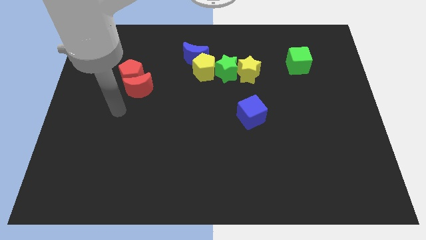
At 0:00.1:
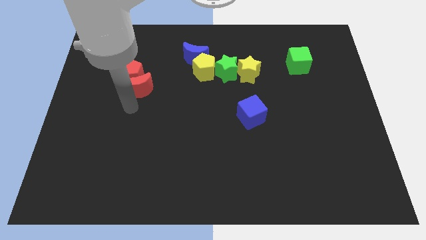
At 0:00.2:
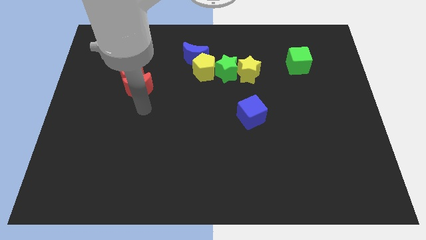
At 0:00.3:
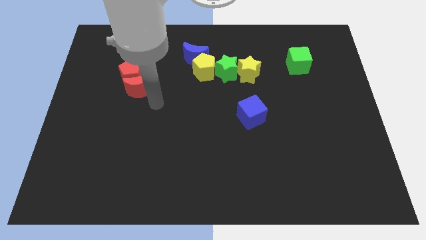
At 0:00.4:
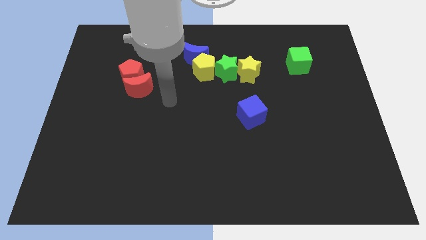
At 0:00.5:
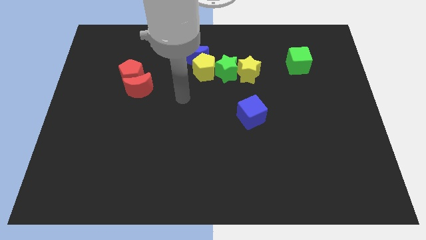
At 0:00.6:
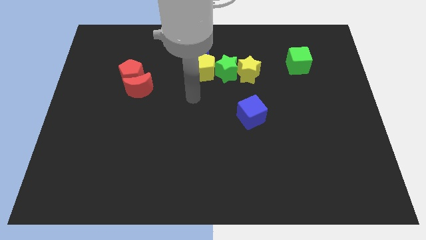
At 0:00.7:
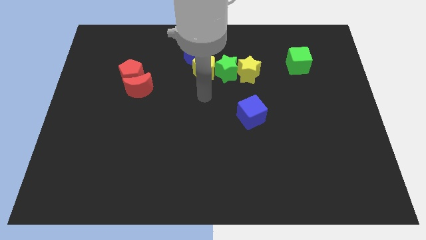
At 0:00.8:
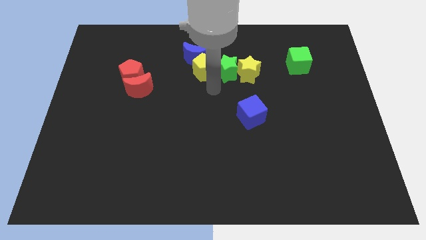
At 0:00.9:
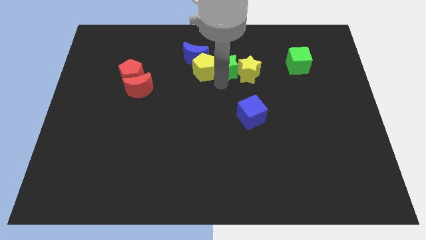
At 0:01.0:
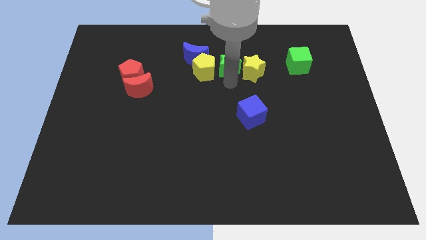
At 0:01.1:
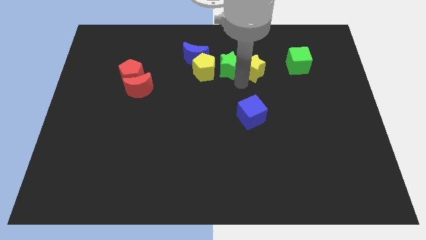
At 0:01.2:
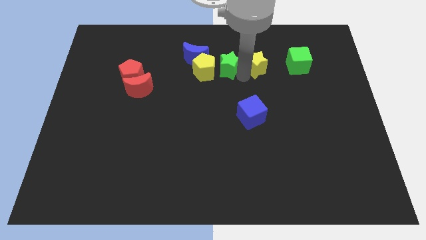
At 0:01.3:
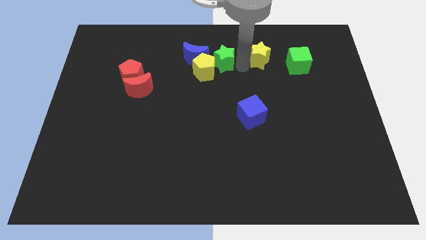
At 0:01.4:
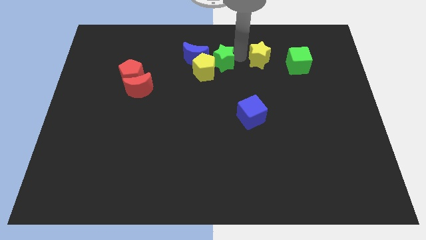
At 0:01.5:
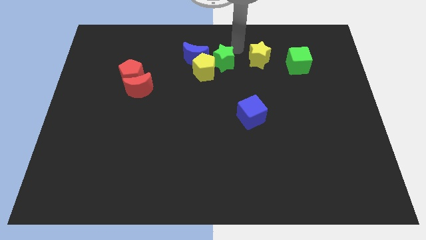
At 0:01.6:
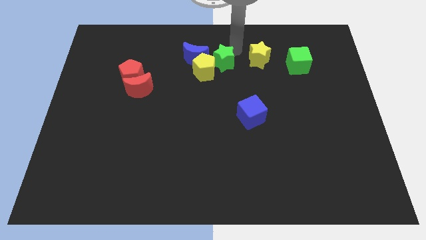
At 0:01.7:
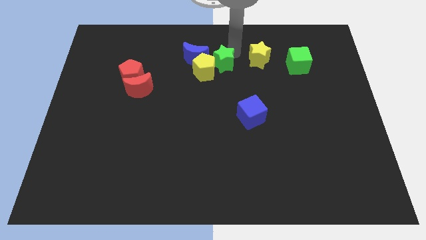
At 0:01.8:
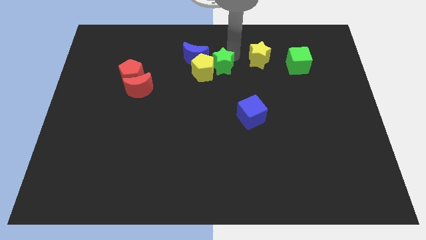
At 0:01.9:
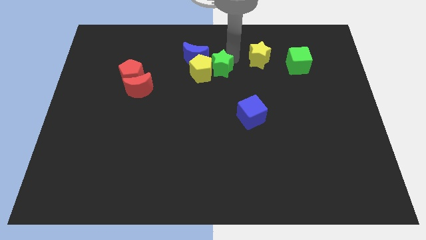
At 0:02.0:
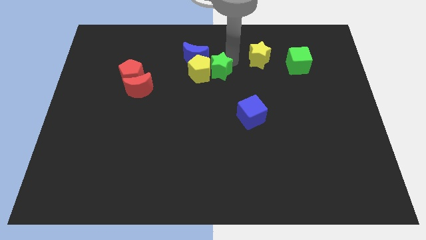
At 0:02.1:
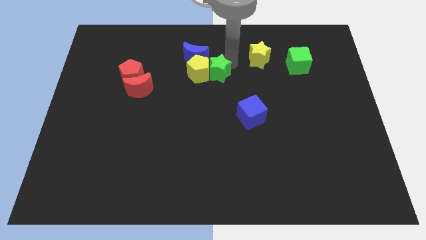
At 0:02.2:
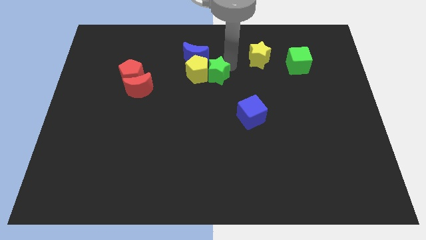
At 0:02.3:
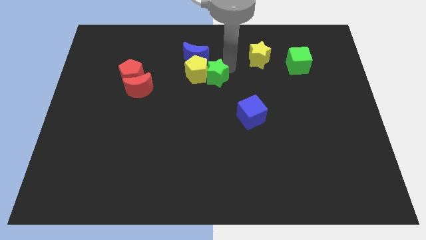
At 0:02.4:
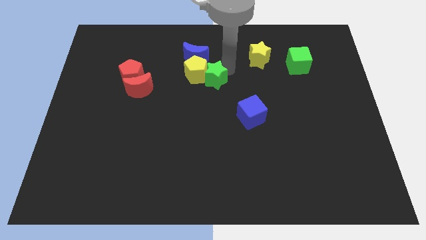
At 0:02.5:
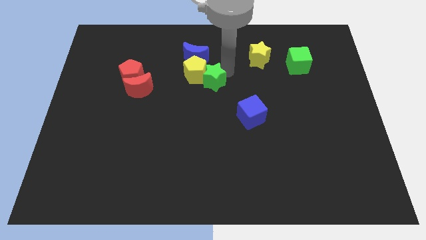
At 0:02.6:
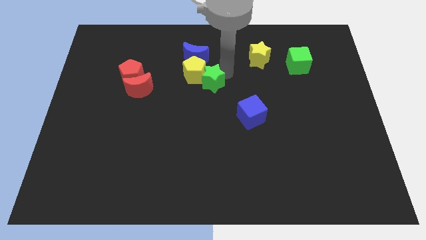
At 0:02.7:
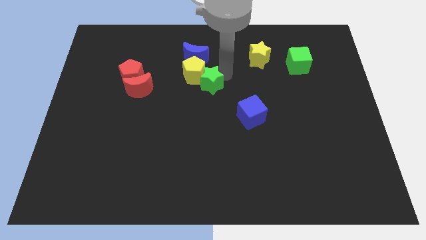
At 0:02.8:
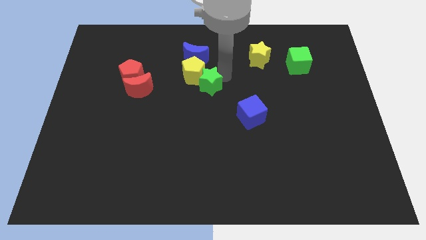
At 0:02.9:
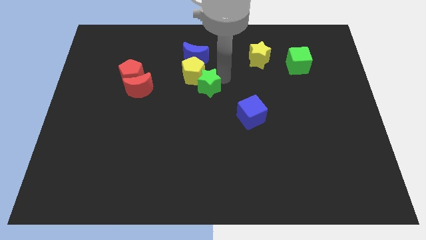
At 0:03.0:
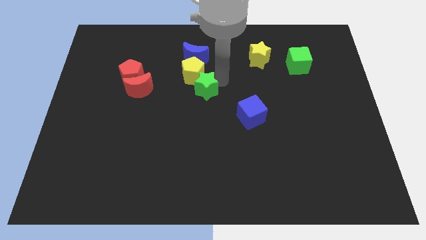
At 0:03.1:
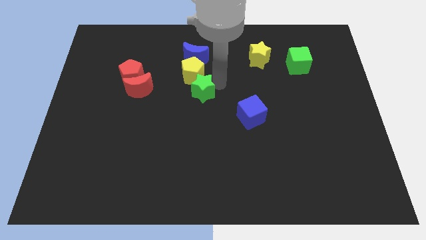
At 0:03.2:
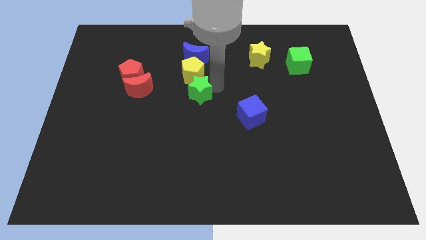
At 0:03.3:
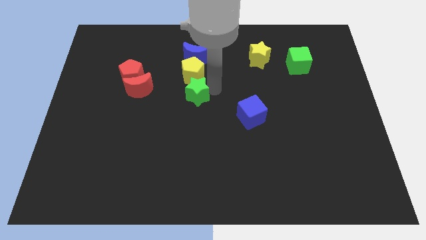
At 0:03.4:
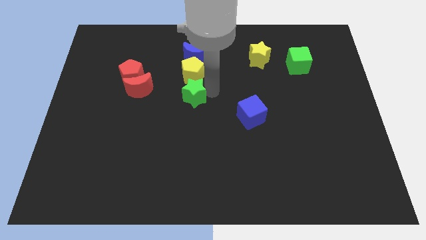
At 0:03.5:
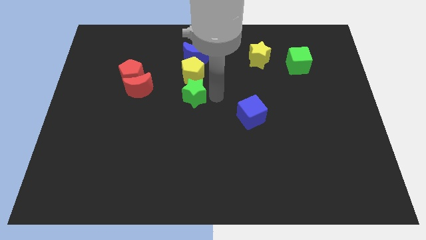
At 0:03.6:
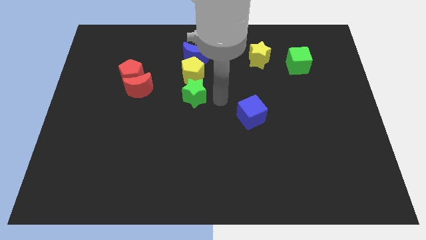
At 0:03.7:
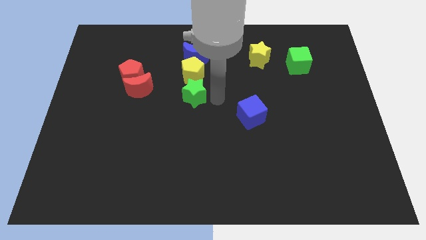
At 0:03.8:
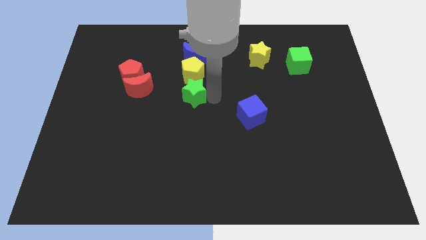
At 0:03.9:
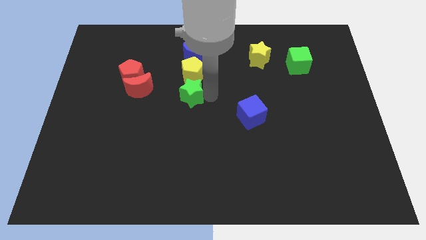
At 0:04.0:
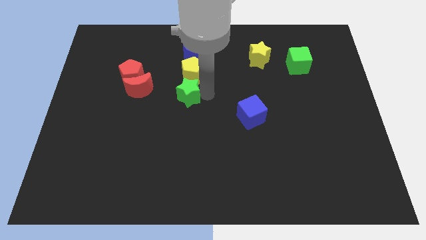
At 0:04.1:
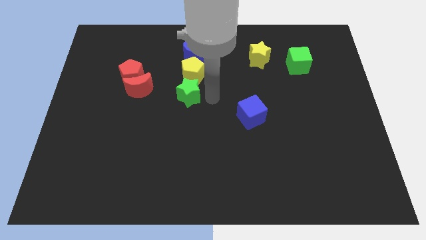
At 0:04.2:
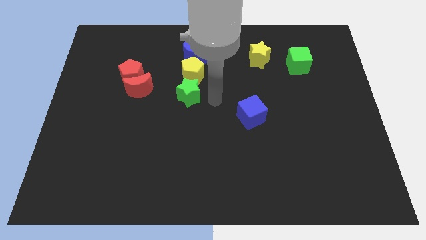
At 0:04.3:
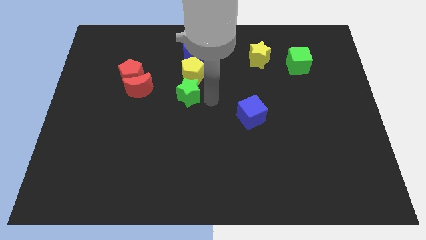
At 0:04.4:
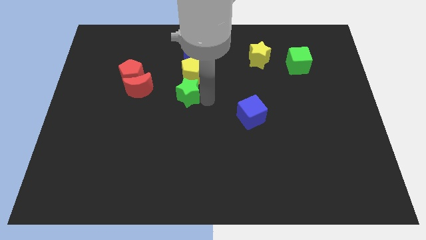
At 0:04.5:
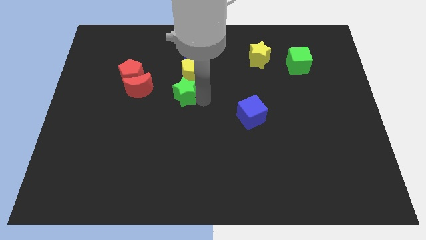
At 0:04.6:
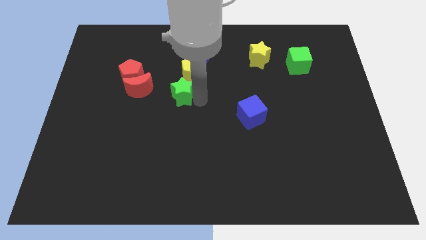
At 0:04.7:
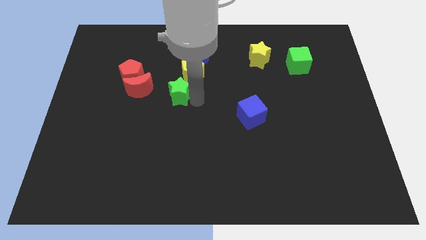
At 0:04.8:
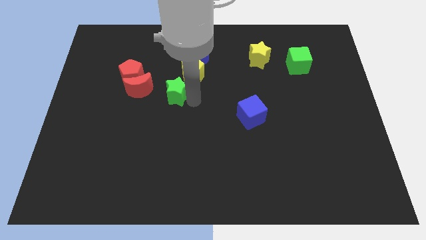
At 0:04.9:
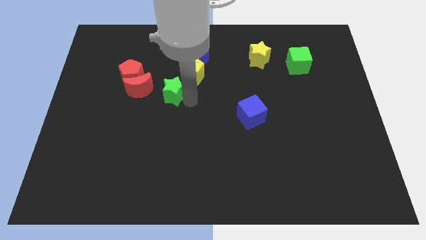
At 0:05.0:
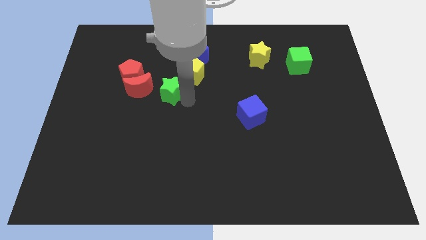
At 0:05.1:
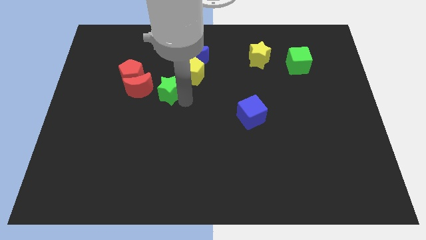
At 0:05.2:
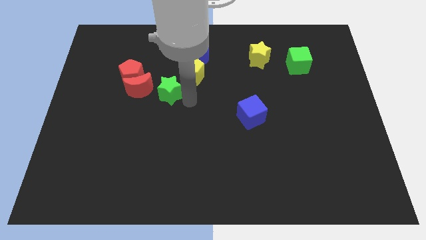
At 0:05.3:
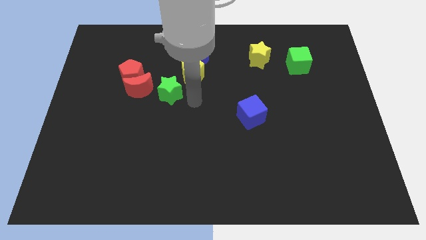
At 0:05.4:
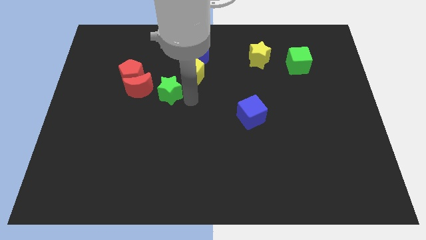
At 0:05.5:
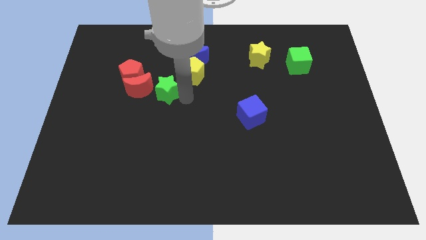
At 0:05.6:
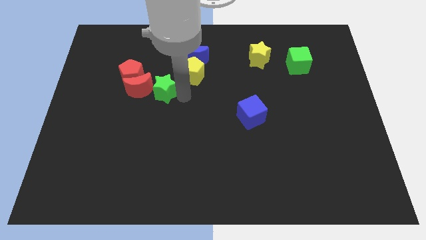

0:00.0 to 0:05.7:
put the green star towards the red moon

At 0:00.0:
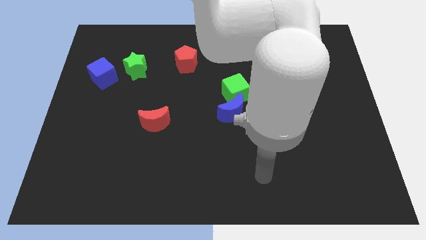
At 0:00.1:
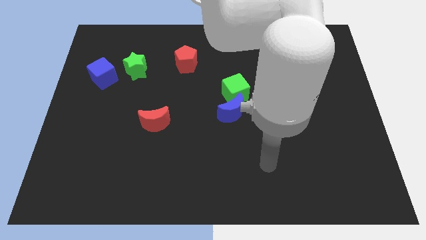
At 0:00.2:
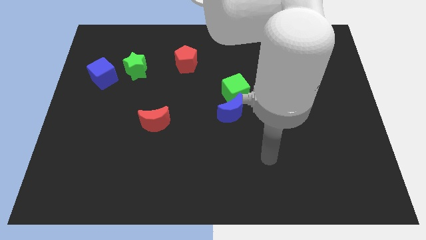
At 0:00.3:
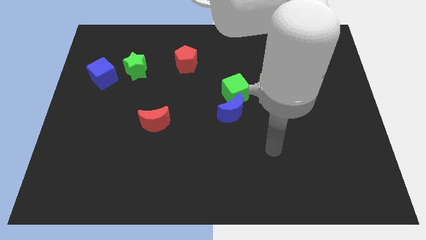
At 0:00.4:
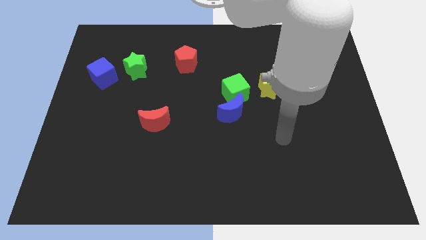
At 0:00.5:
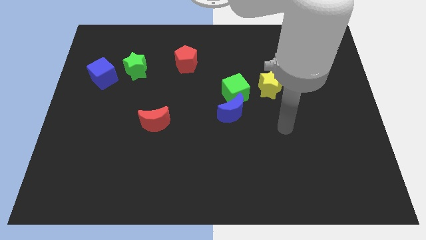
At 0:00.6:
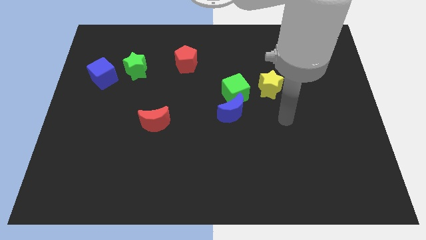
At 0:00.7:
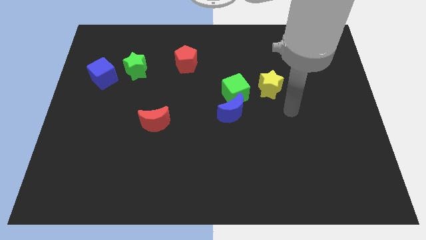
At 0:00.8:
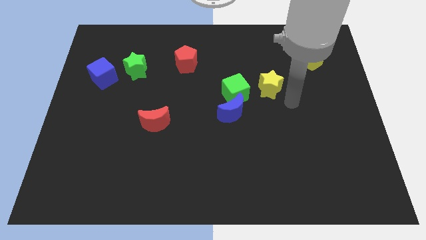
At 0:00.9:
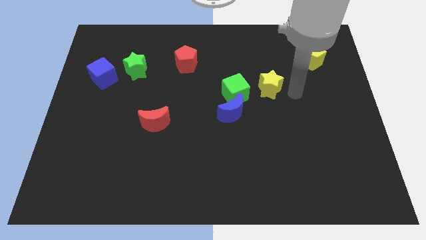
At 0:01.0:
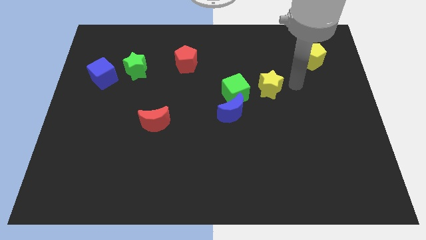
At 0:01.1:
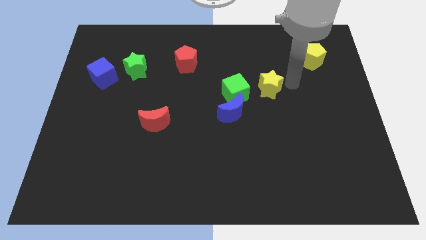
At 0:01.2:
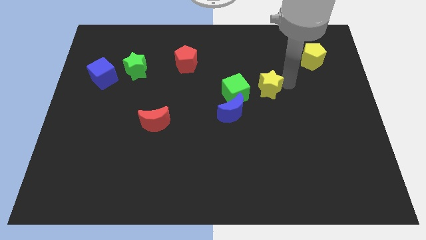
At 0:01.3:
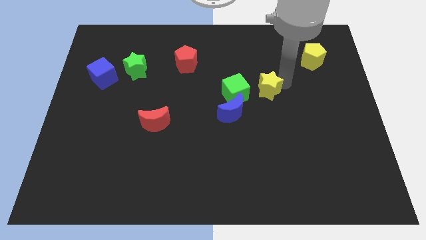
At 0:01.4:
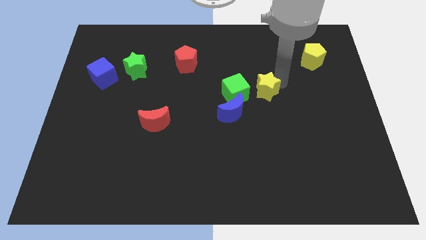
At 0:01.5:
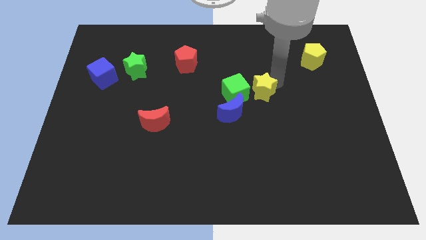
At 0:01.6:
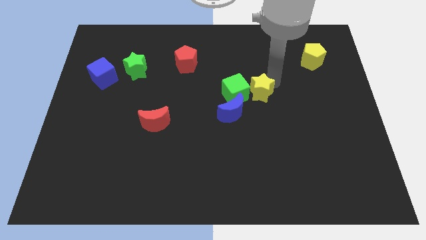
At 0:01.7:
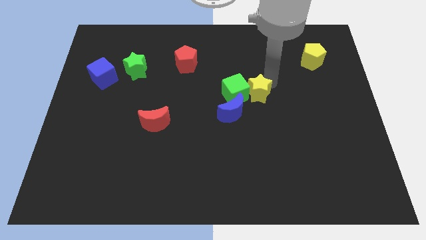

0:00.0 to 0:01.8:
slide the yellow star next to the green cube
